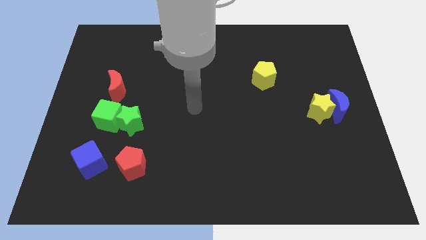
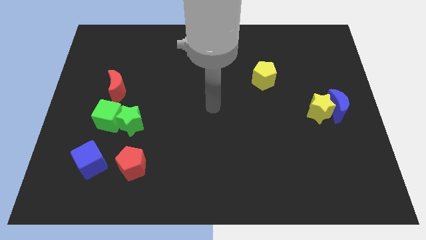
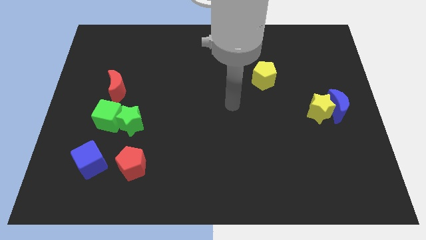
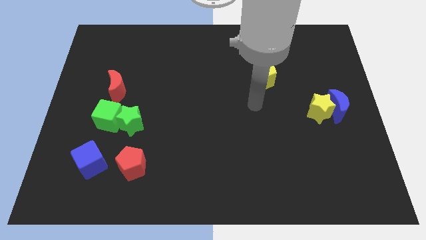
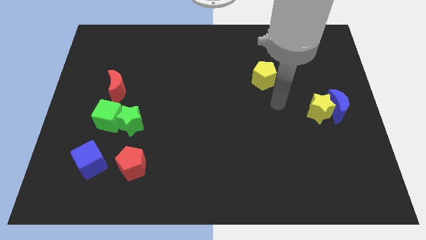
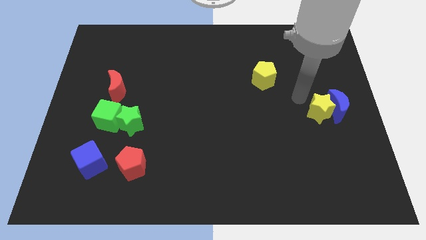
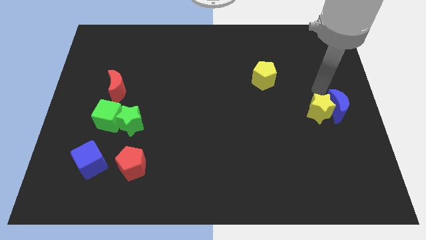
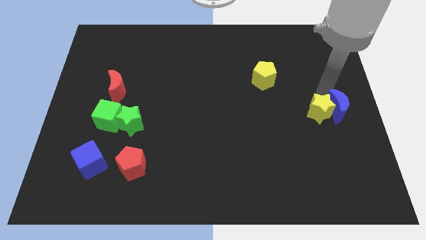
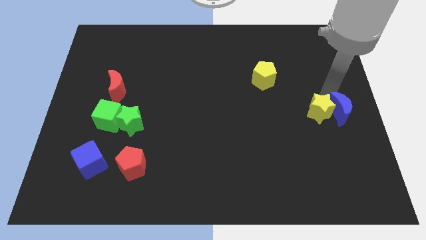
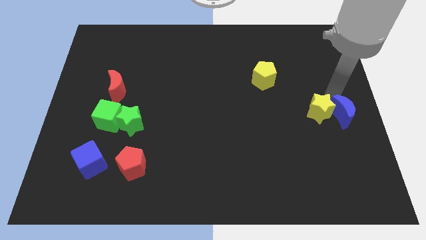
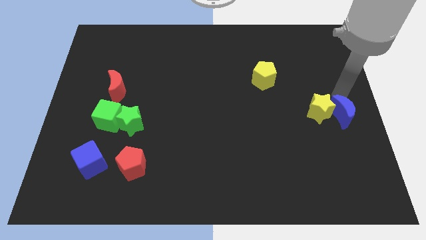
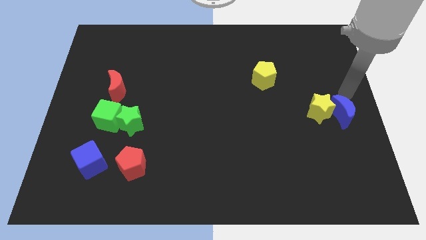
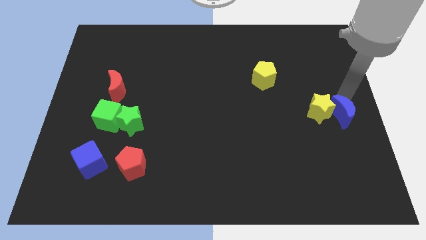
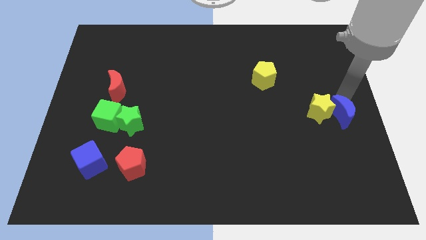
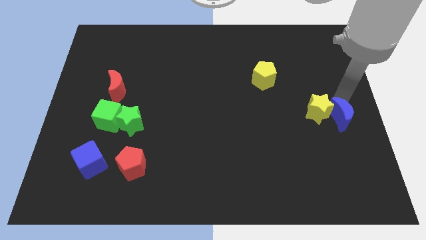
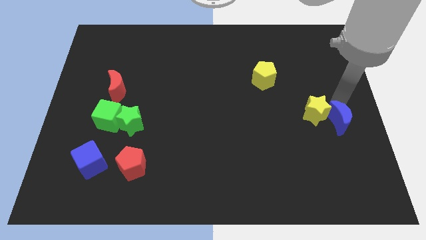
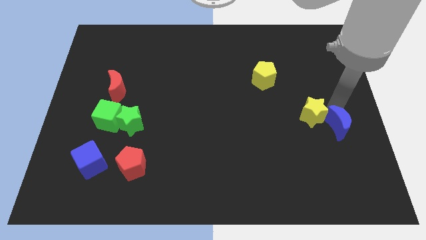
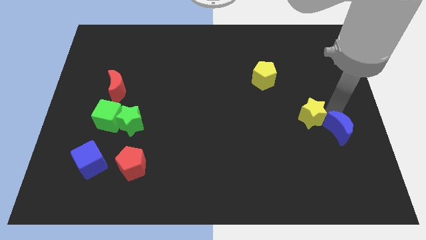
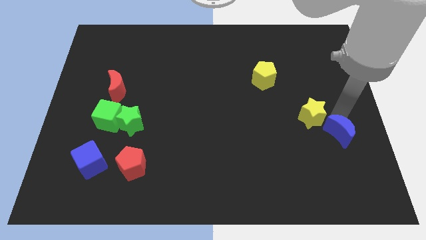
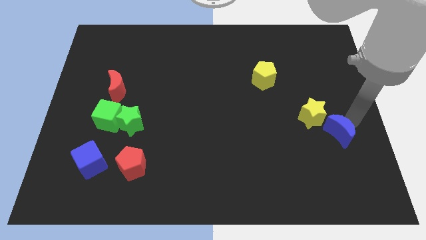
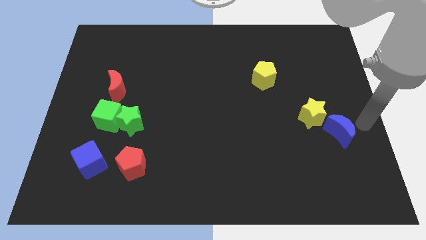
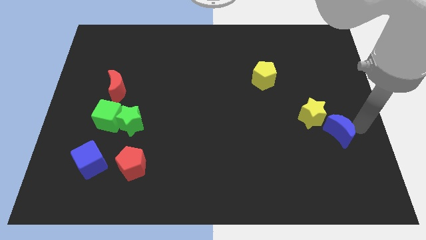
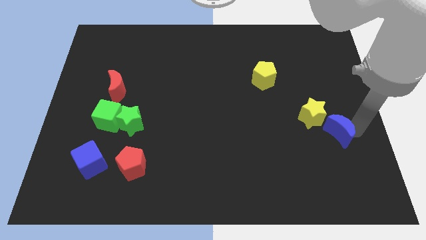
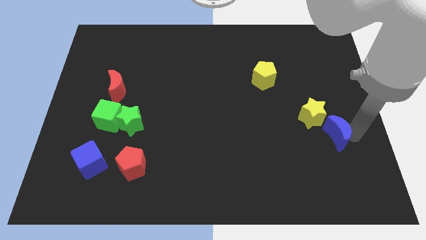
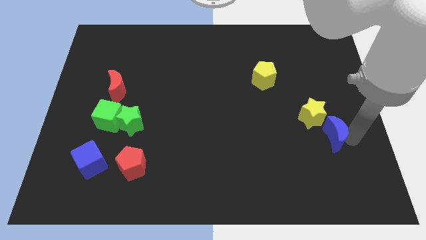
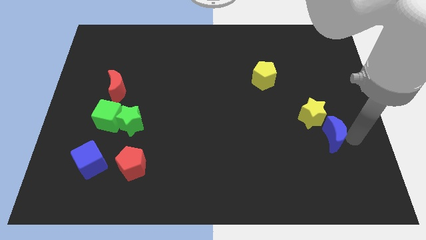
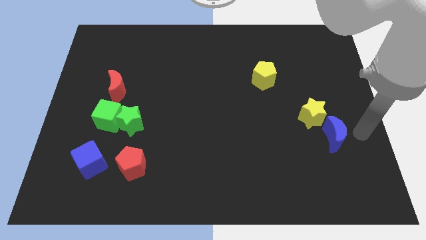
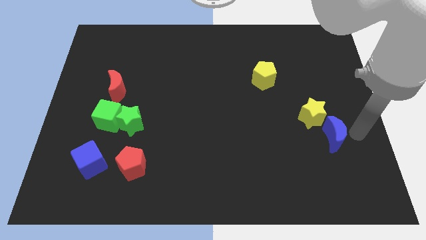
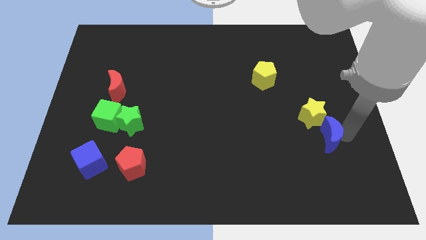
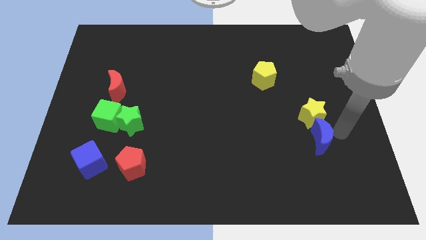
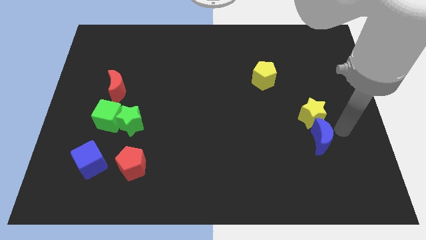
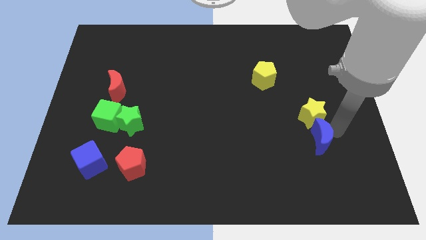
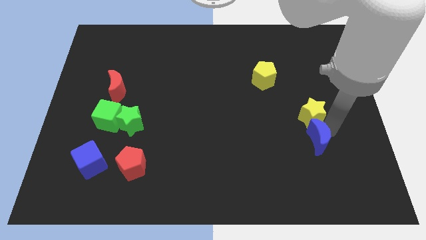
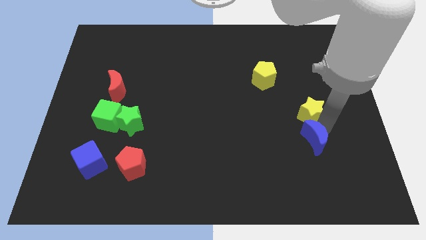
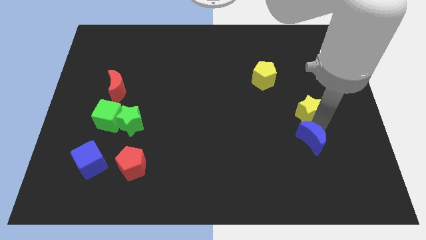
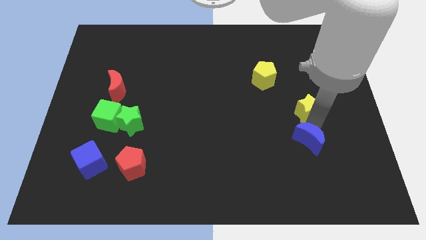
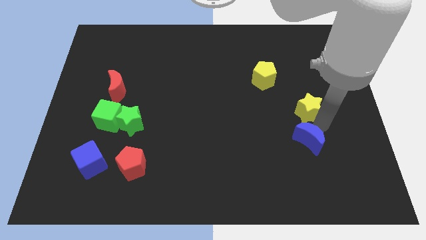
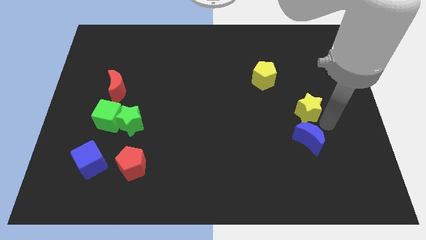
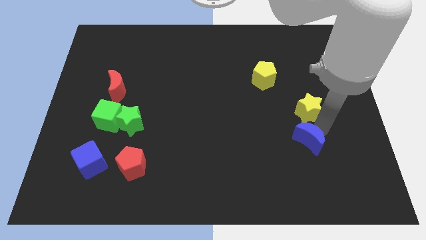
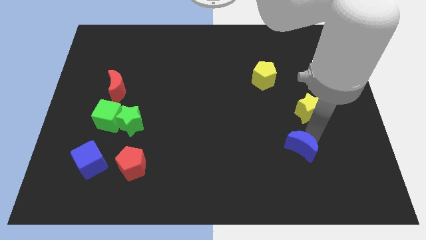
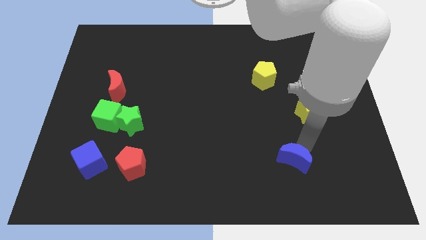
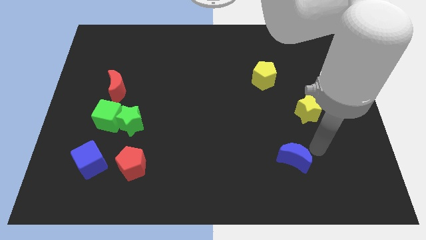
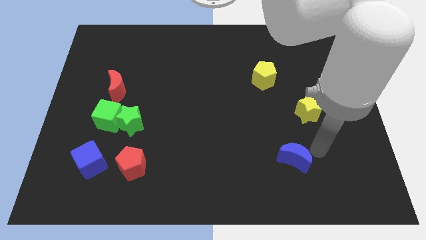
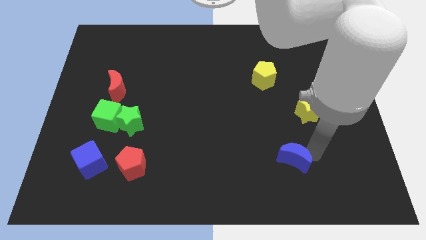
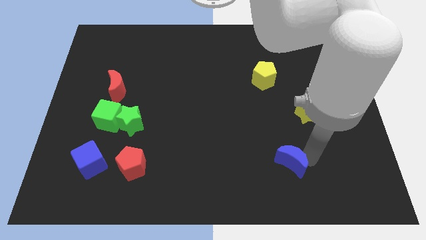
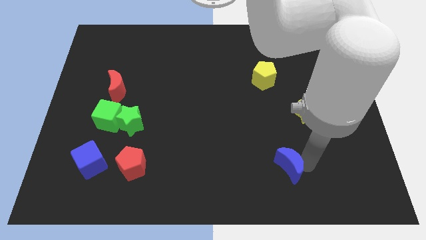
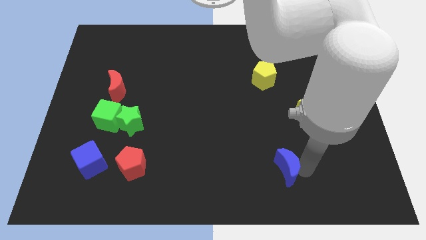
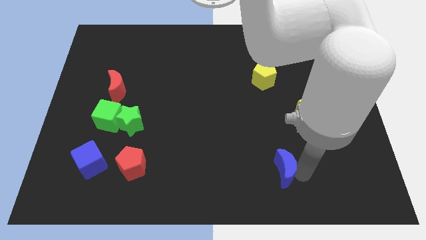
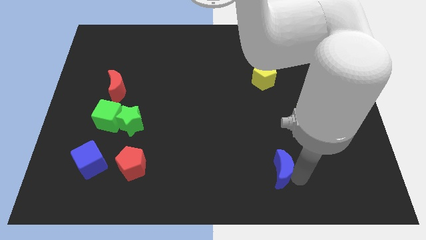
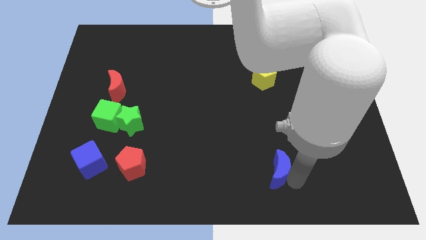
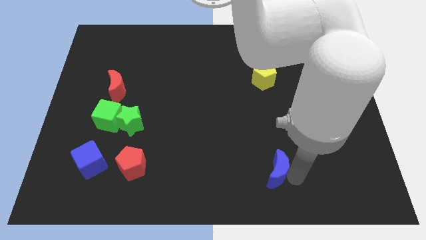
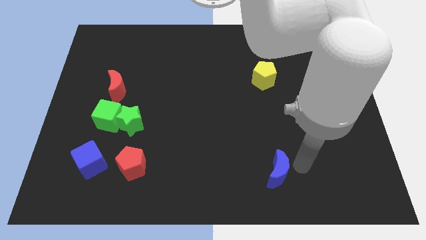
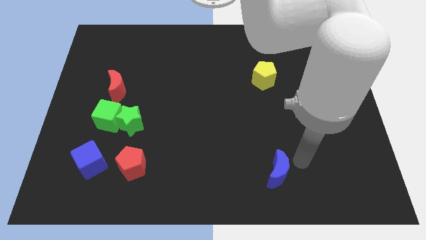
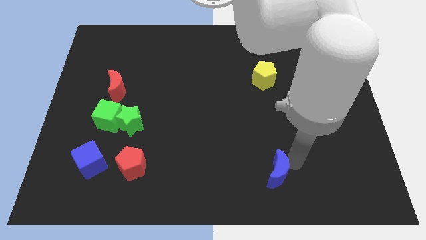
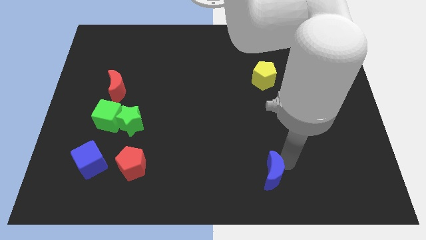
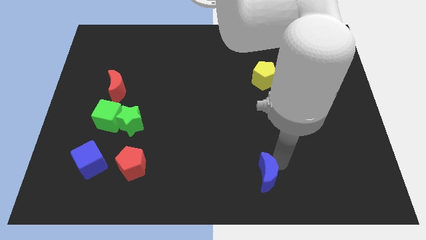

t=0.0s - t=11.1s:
push the blue moon to the bottom

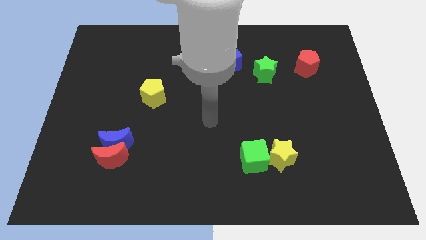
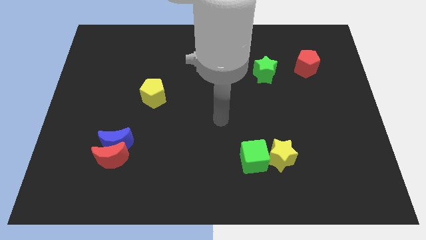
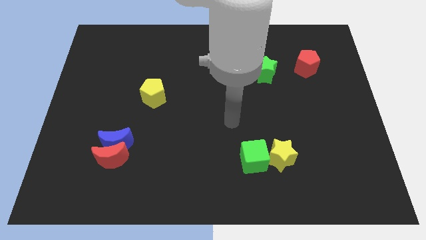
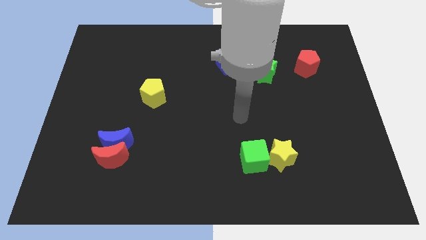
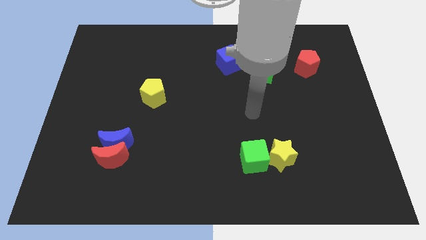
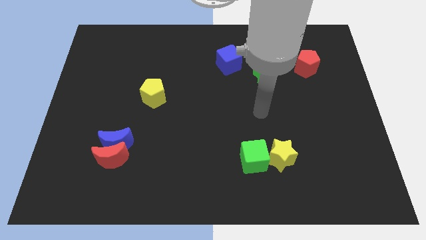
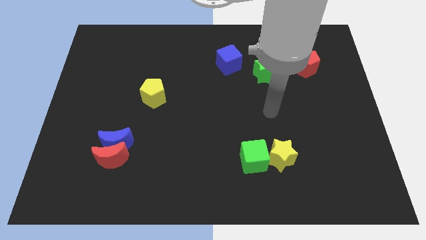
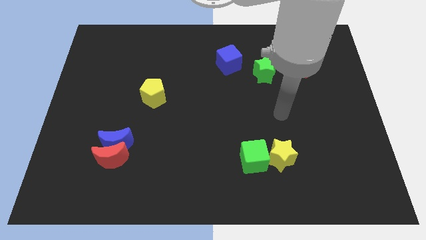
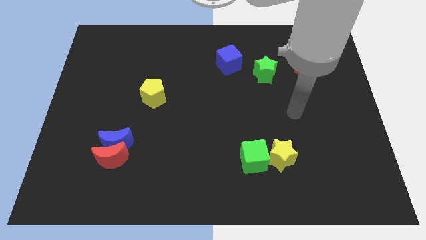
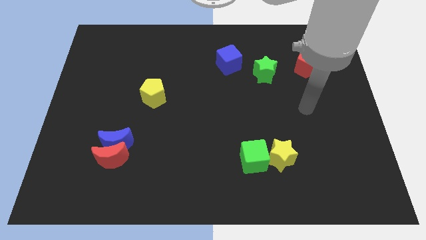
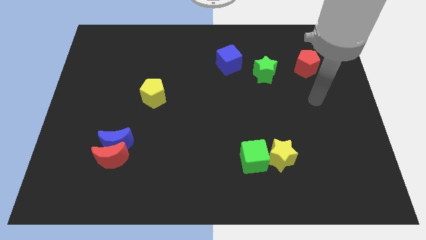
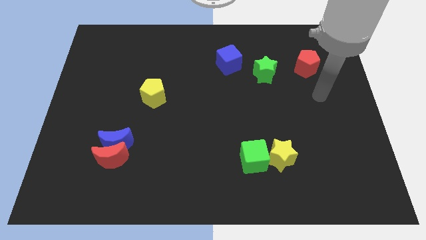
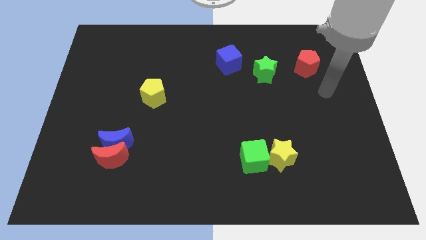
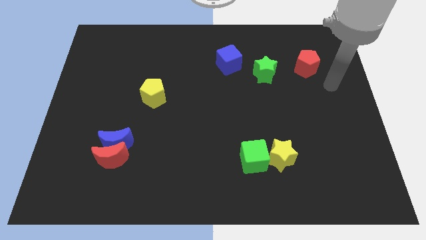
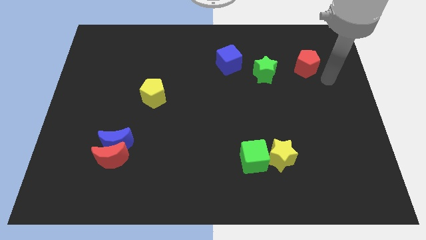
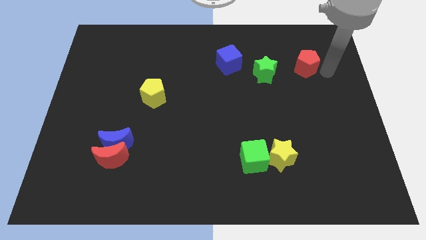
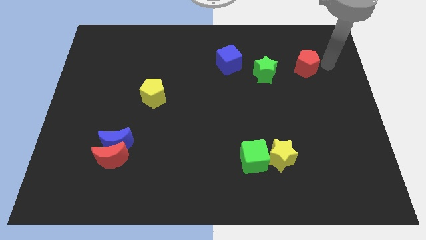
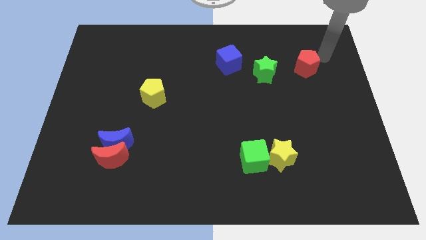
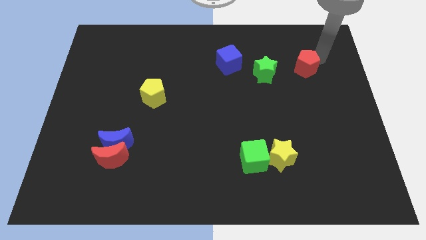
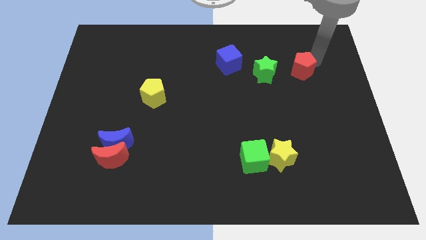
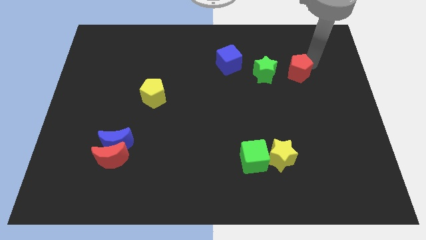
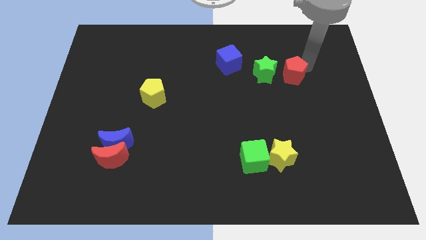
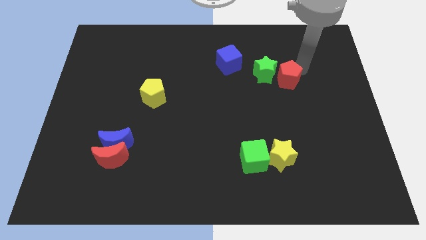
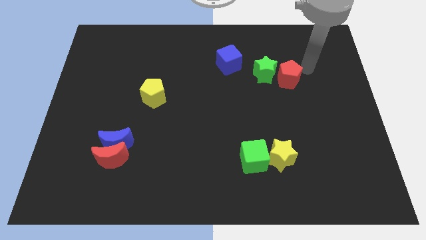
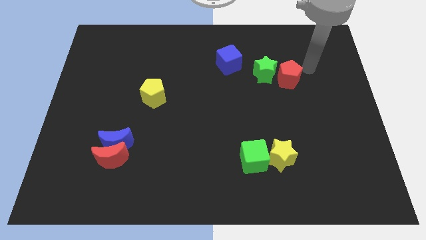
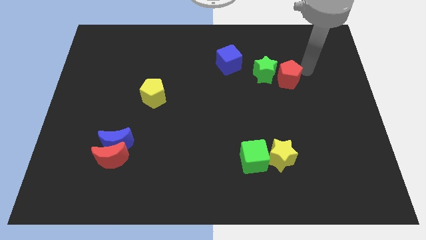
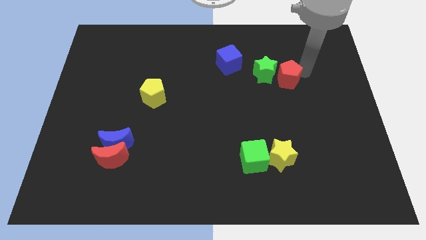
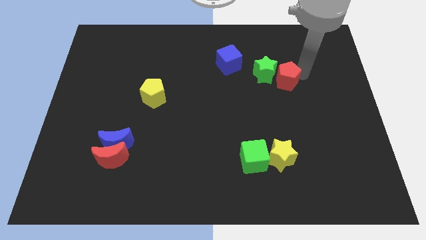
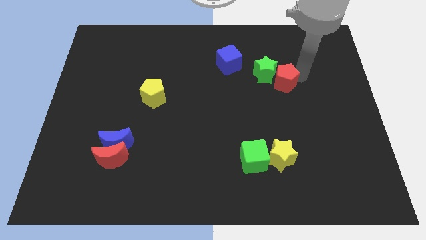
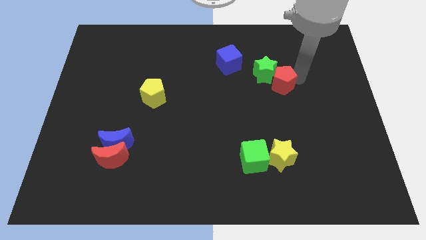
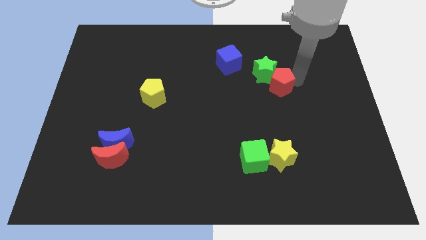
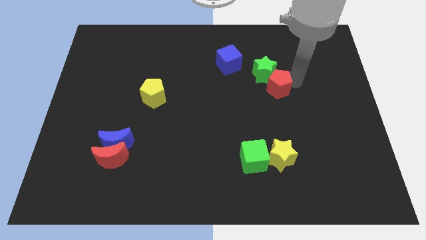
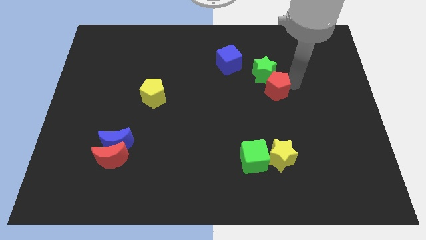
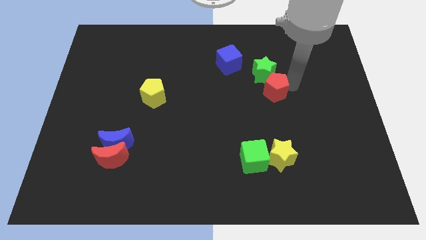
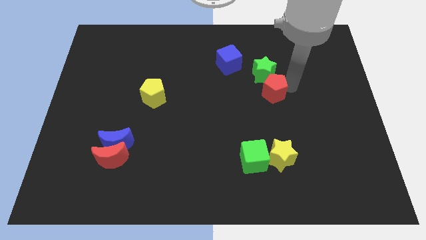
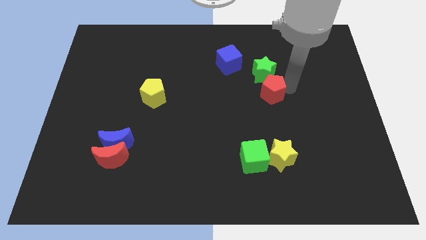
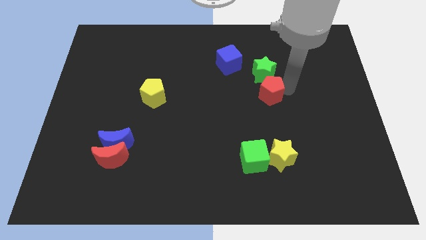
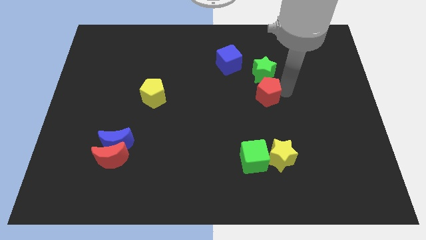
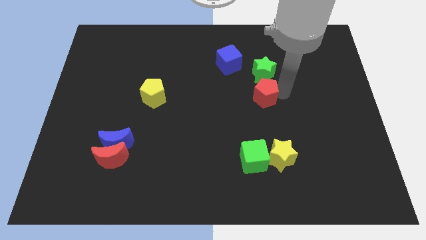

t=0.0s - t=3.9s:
push the red pentagon to the center of the board
